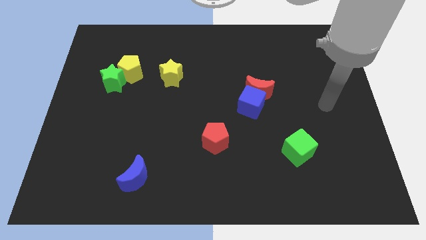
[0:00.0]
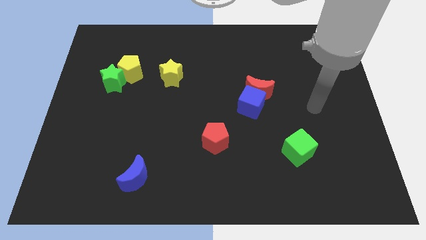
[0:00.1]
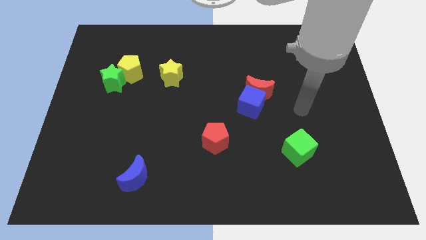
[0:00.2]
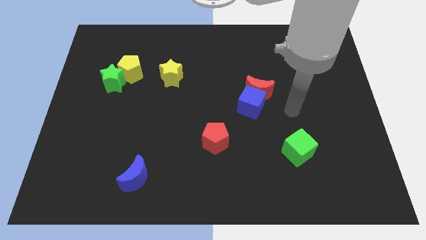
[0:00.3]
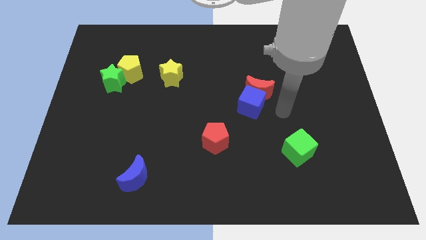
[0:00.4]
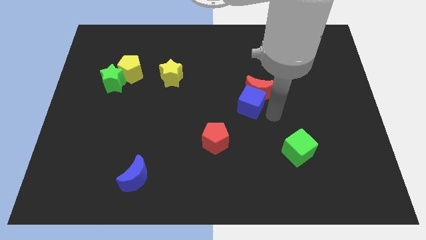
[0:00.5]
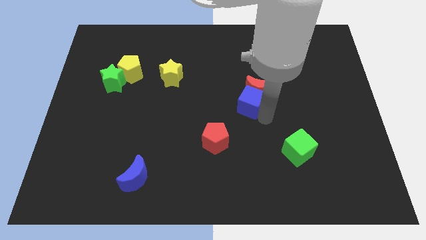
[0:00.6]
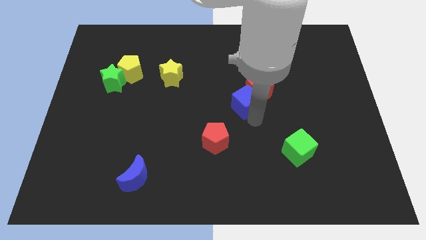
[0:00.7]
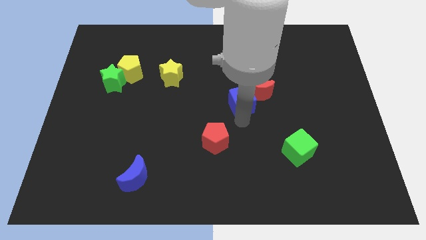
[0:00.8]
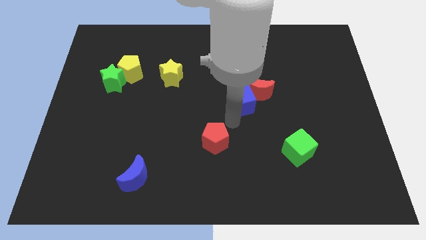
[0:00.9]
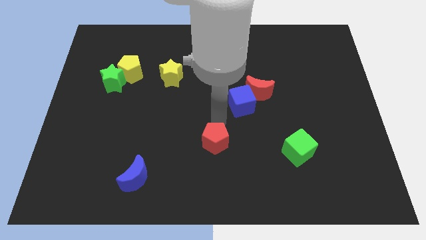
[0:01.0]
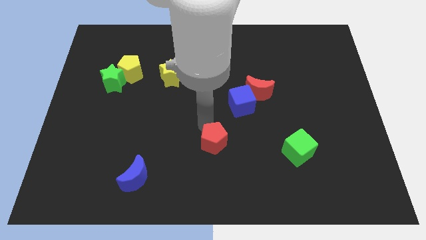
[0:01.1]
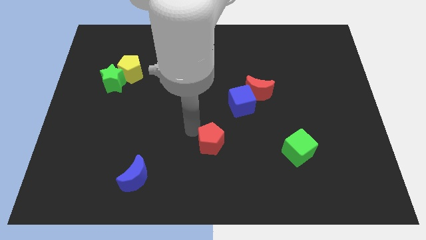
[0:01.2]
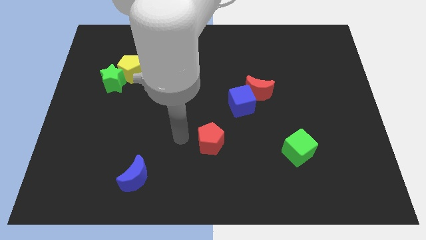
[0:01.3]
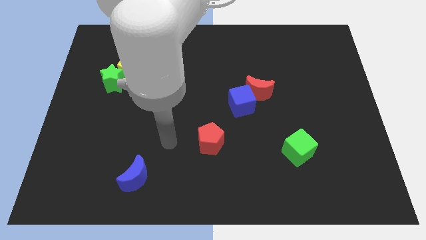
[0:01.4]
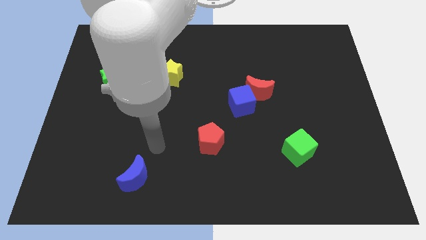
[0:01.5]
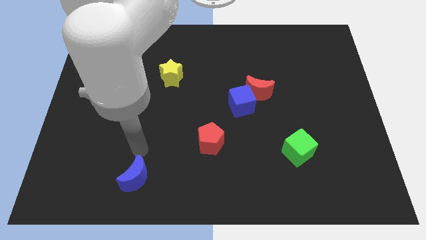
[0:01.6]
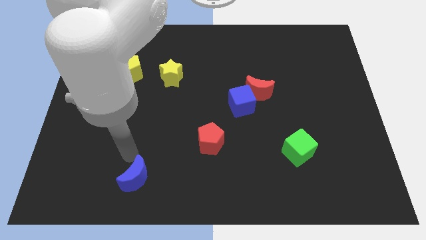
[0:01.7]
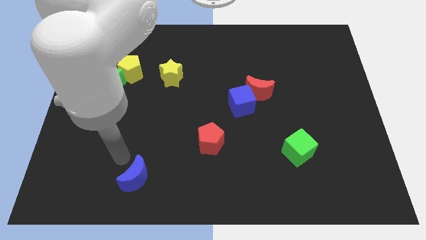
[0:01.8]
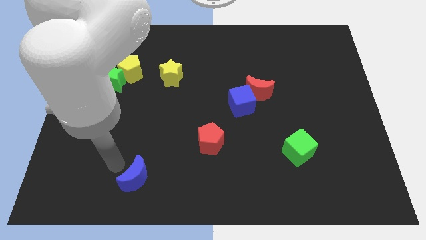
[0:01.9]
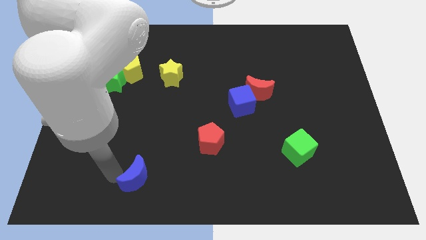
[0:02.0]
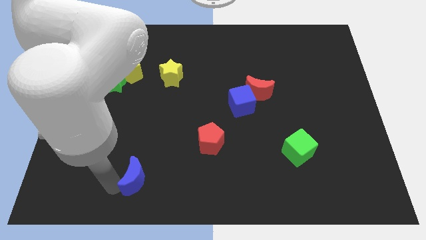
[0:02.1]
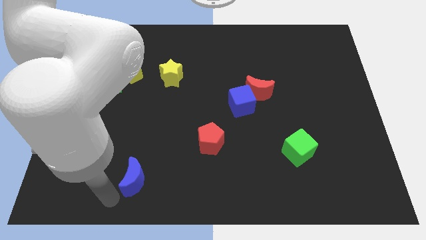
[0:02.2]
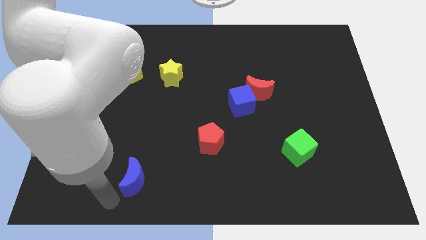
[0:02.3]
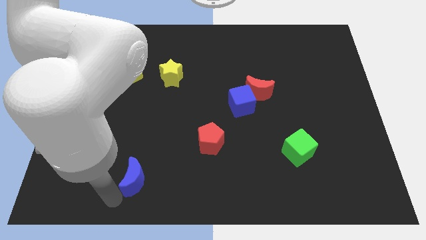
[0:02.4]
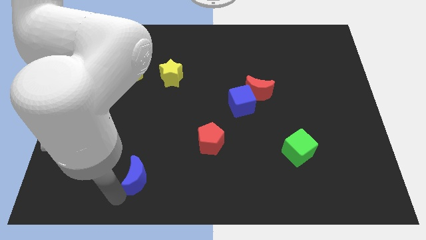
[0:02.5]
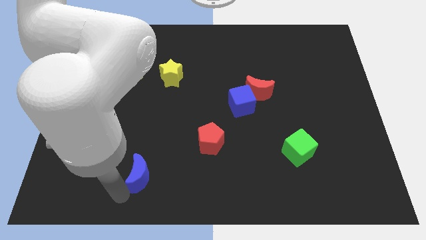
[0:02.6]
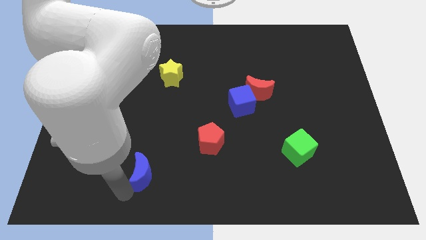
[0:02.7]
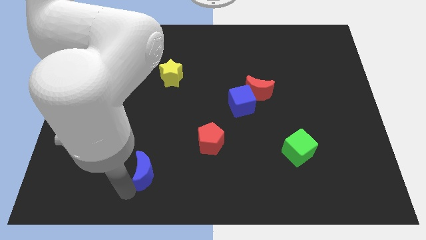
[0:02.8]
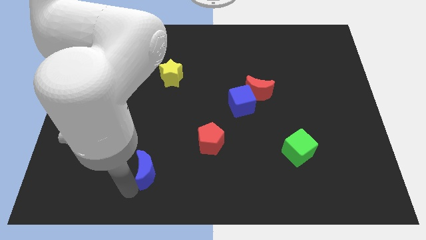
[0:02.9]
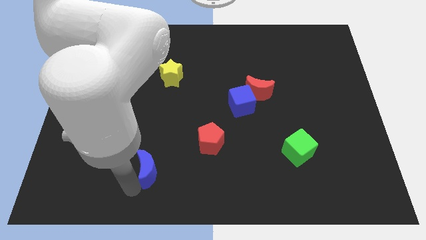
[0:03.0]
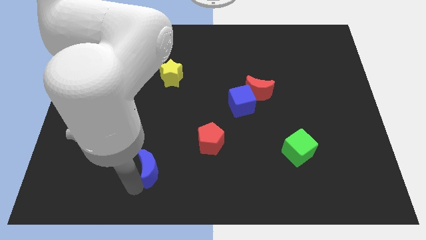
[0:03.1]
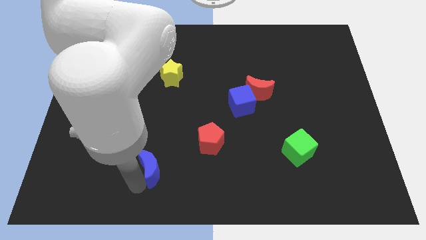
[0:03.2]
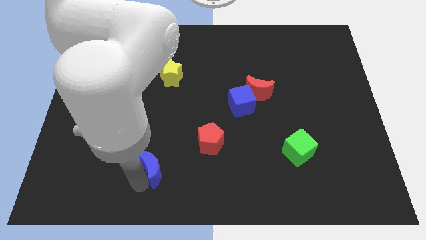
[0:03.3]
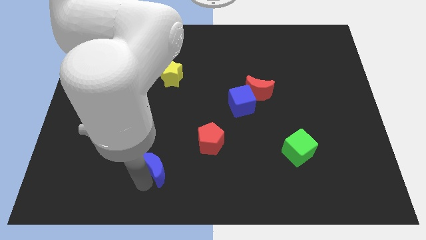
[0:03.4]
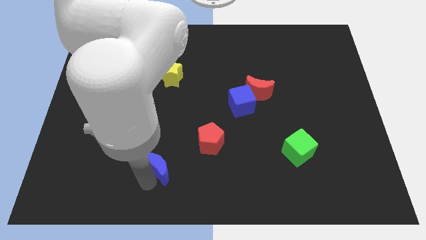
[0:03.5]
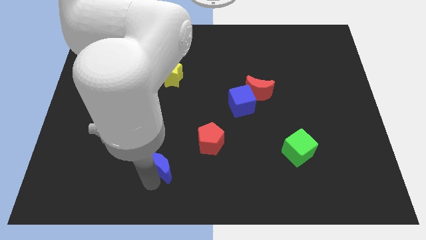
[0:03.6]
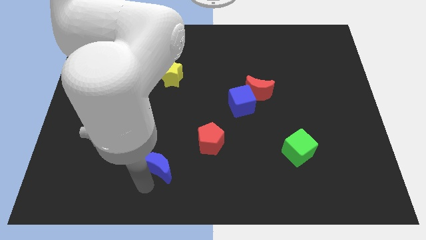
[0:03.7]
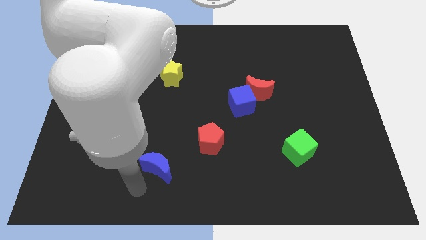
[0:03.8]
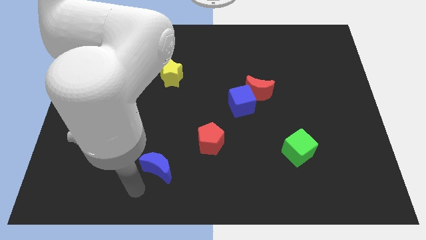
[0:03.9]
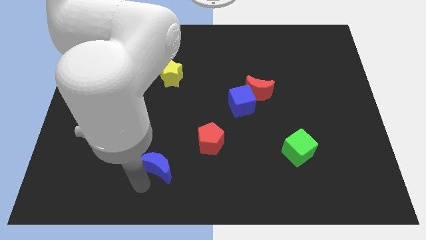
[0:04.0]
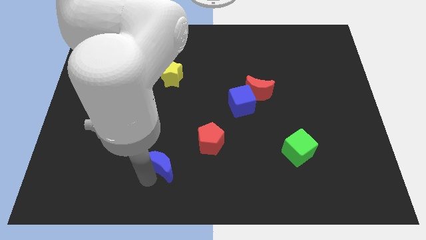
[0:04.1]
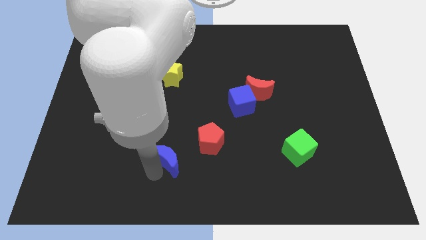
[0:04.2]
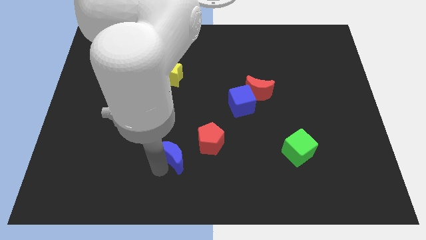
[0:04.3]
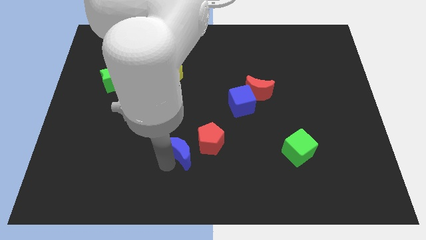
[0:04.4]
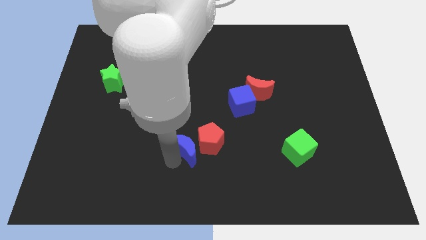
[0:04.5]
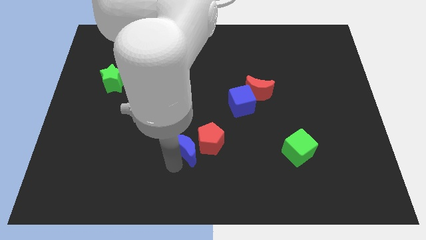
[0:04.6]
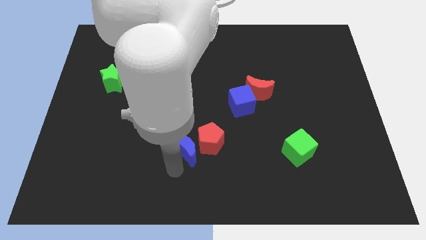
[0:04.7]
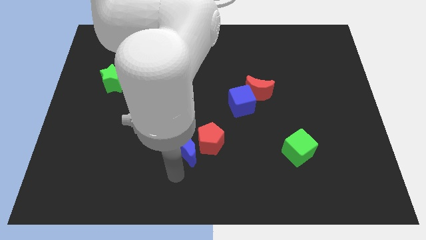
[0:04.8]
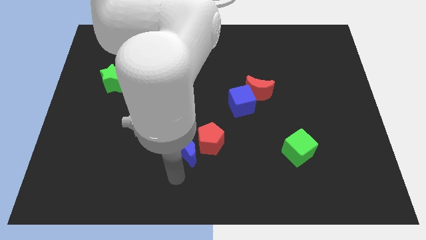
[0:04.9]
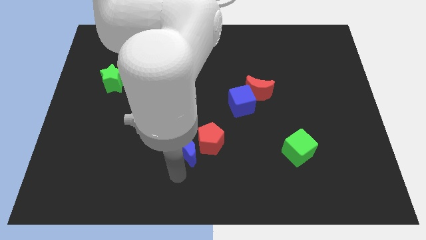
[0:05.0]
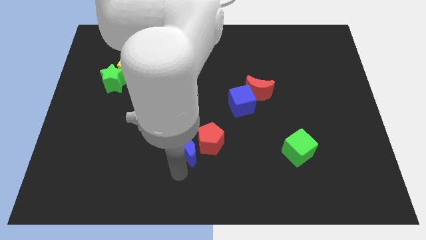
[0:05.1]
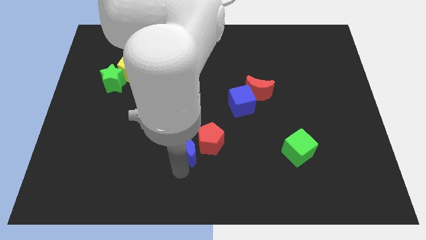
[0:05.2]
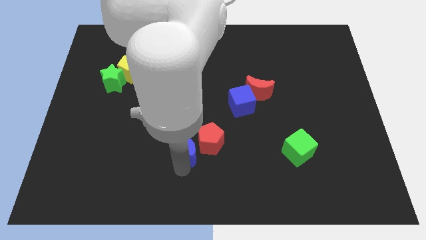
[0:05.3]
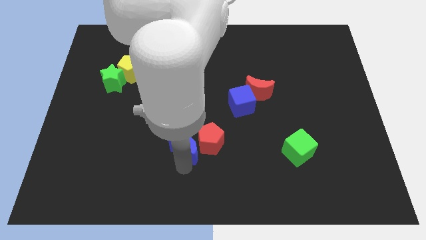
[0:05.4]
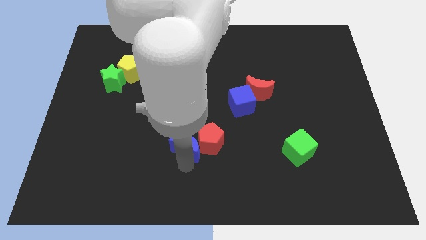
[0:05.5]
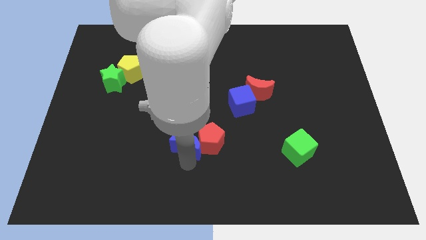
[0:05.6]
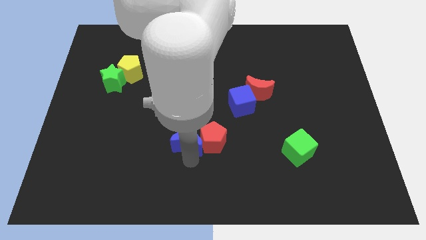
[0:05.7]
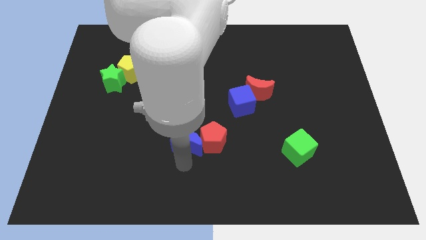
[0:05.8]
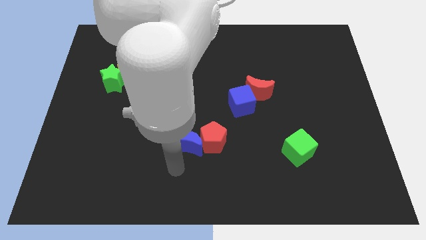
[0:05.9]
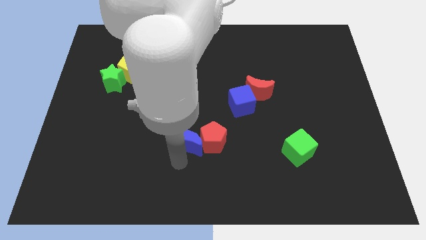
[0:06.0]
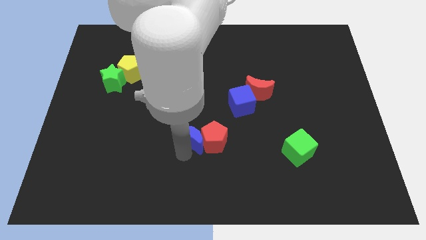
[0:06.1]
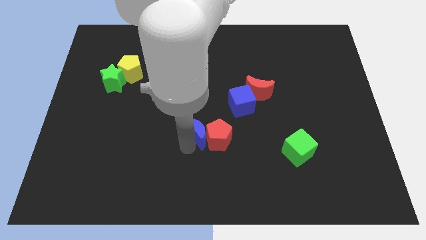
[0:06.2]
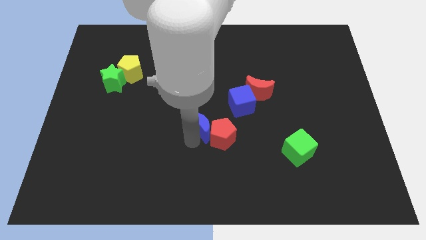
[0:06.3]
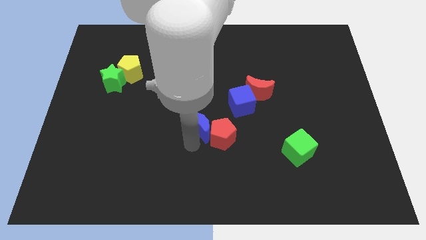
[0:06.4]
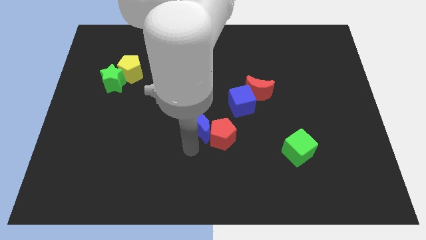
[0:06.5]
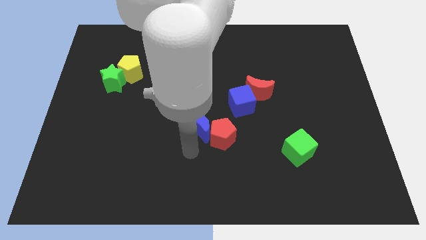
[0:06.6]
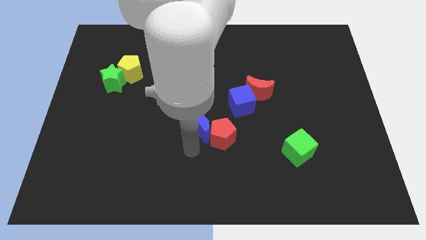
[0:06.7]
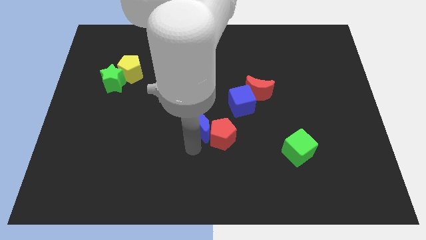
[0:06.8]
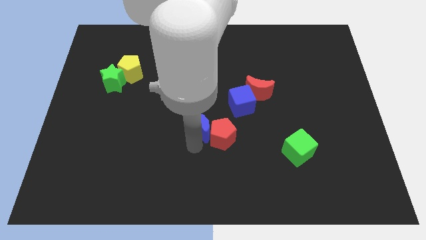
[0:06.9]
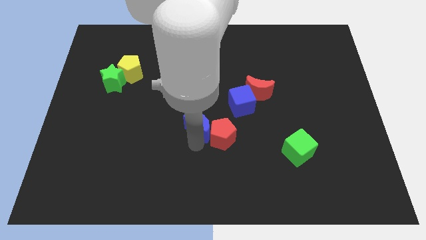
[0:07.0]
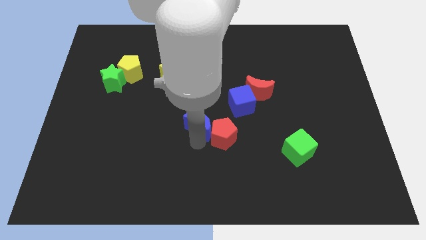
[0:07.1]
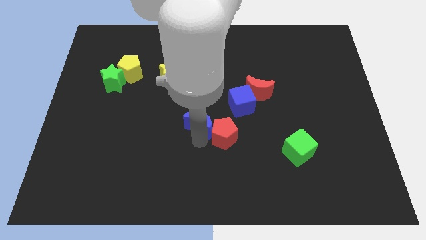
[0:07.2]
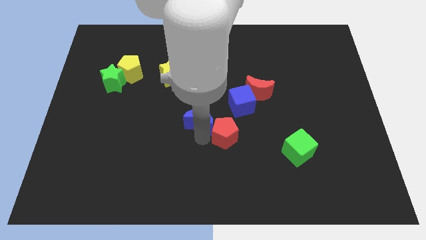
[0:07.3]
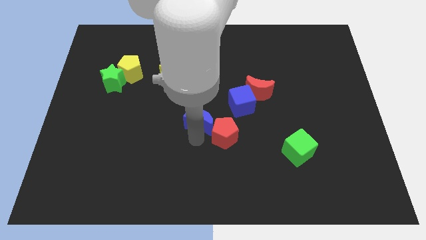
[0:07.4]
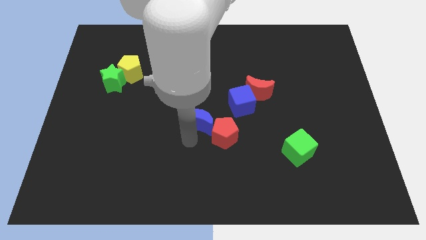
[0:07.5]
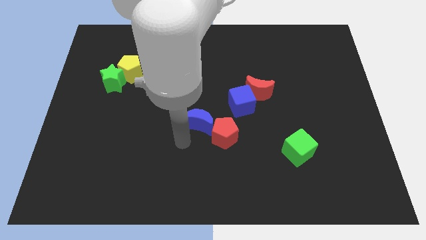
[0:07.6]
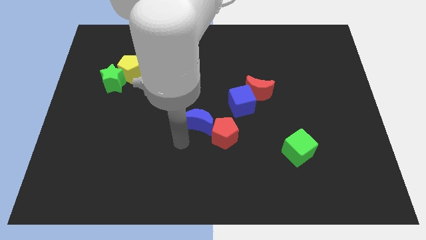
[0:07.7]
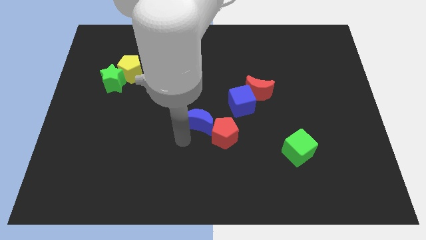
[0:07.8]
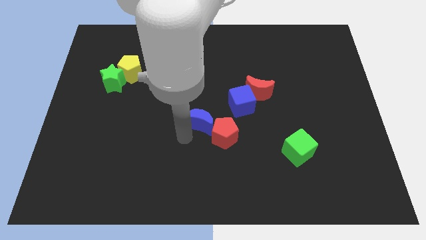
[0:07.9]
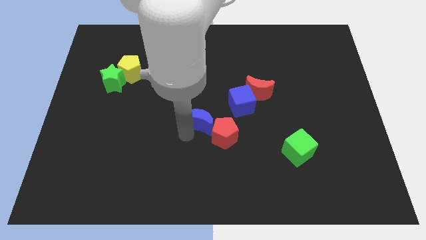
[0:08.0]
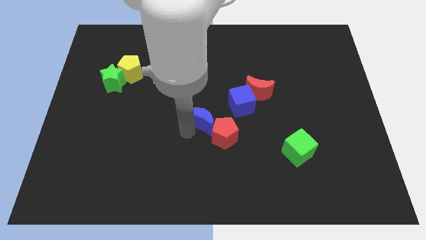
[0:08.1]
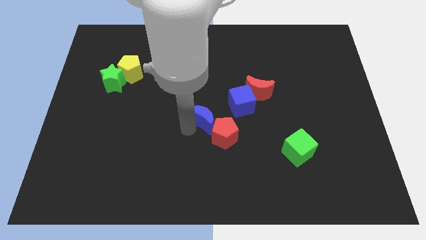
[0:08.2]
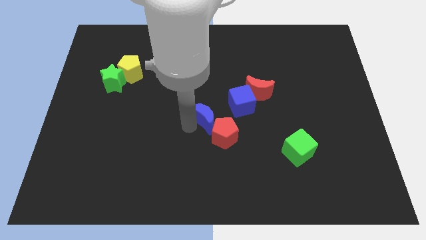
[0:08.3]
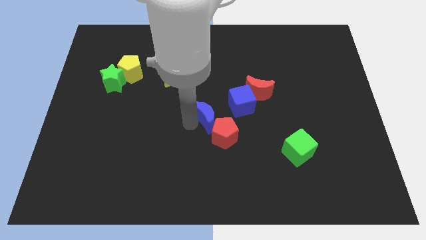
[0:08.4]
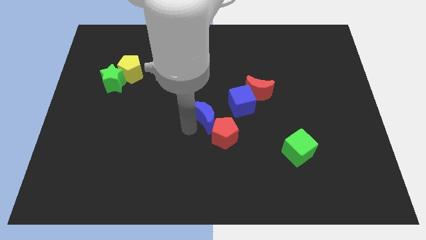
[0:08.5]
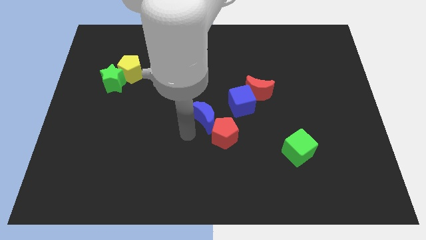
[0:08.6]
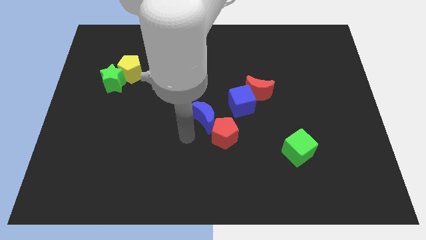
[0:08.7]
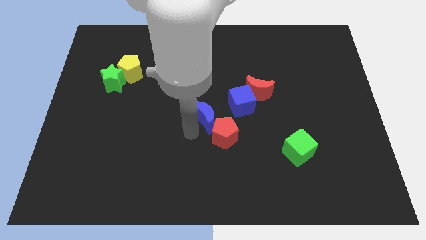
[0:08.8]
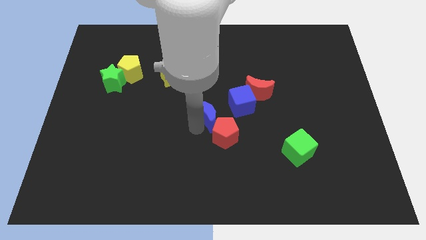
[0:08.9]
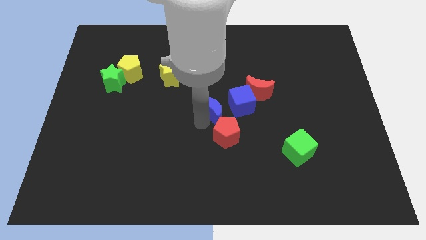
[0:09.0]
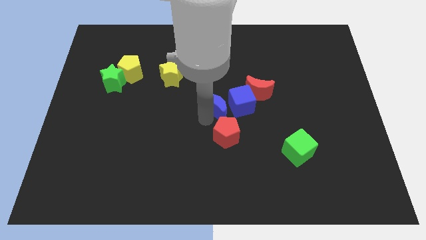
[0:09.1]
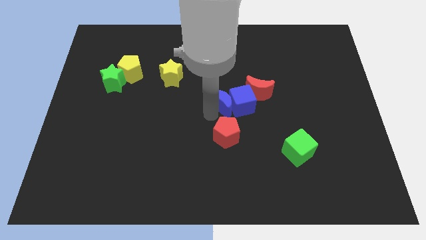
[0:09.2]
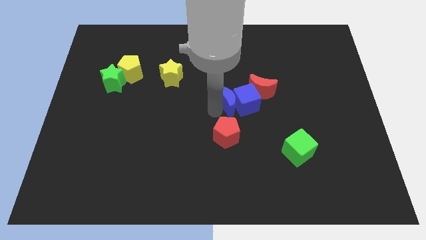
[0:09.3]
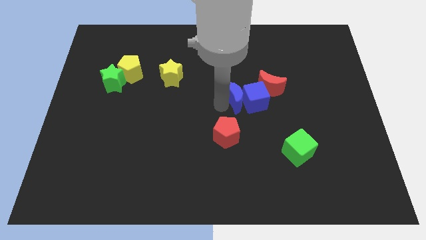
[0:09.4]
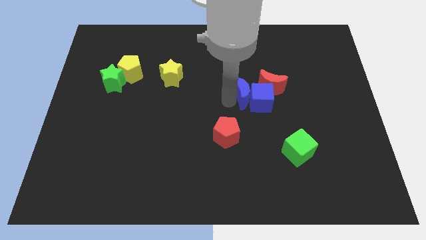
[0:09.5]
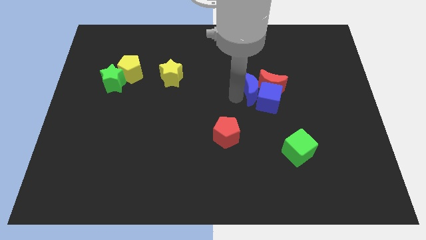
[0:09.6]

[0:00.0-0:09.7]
put the blue moon next to the red moon
